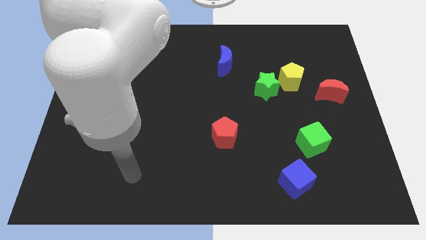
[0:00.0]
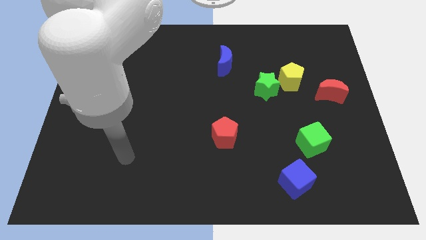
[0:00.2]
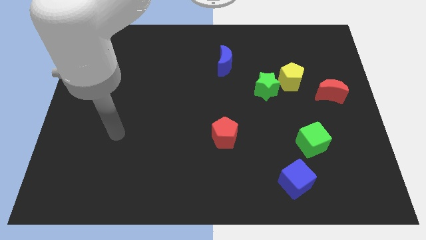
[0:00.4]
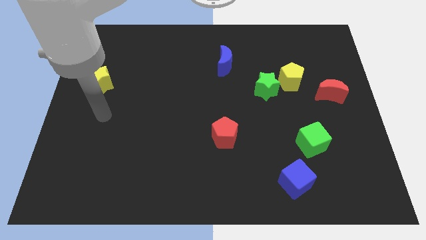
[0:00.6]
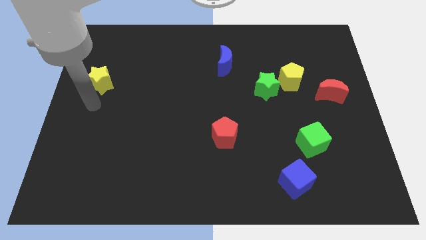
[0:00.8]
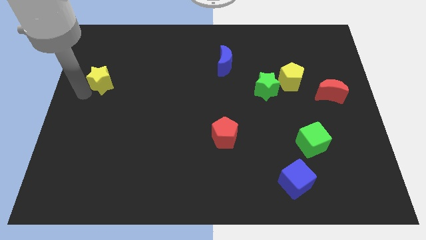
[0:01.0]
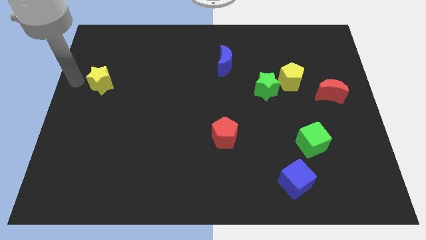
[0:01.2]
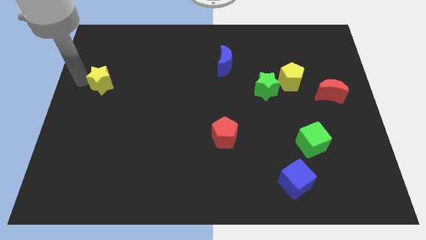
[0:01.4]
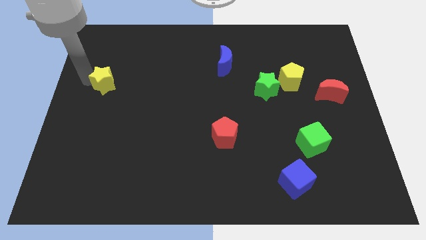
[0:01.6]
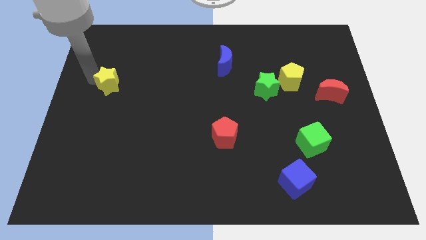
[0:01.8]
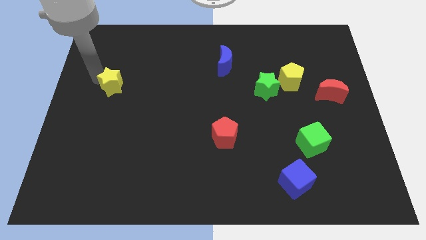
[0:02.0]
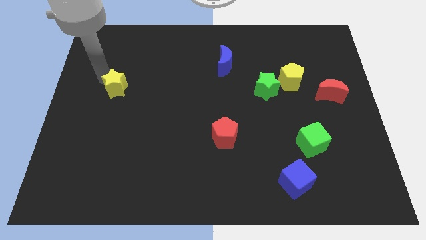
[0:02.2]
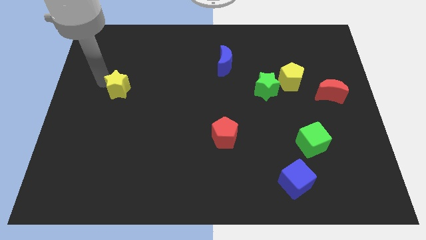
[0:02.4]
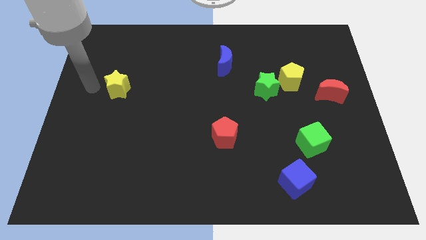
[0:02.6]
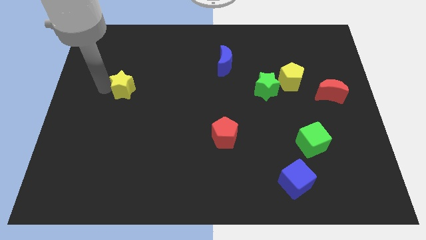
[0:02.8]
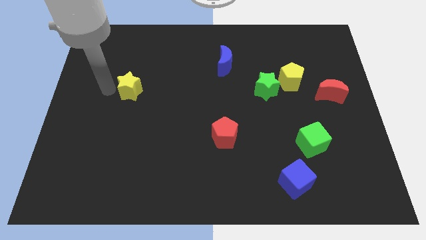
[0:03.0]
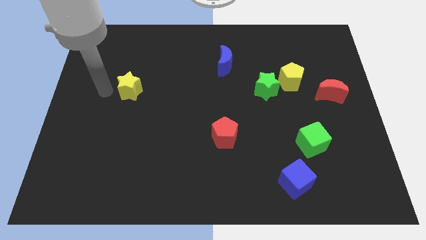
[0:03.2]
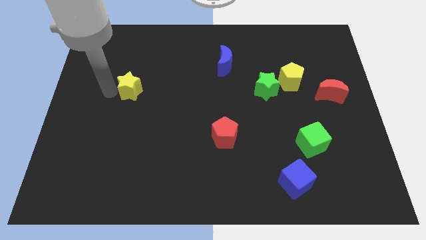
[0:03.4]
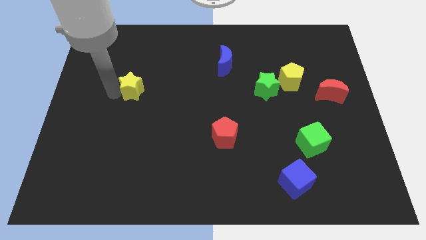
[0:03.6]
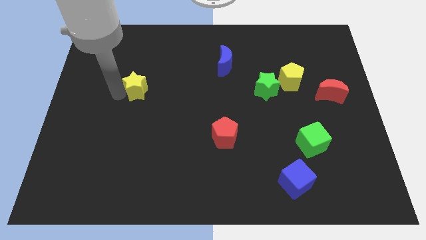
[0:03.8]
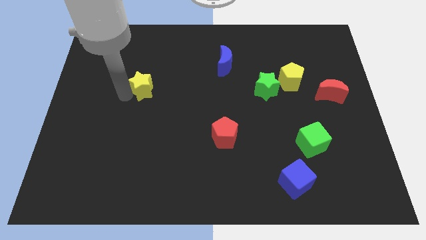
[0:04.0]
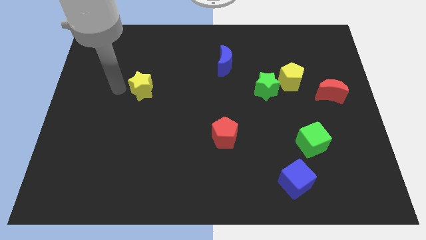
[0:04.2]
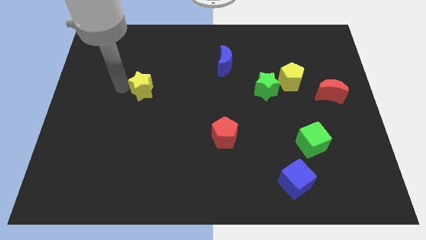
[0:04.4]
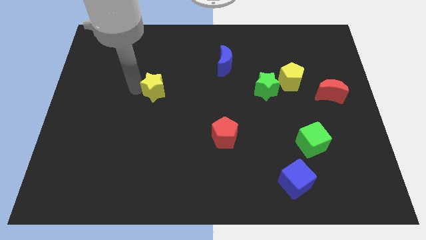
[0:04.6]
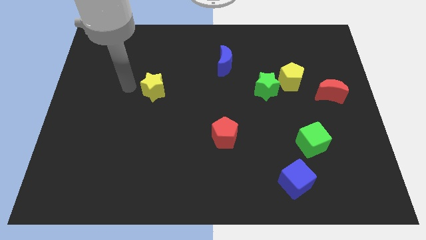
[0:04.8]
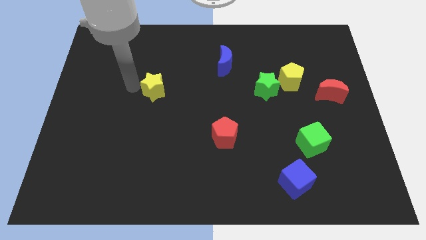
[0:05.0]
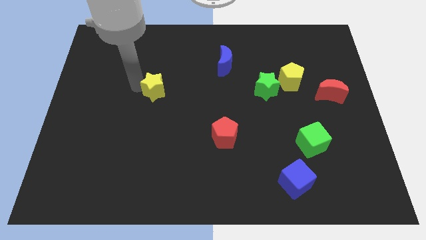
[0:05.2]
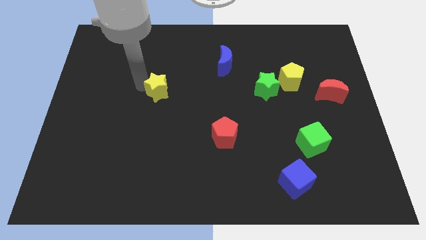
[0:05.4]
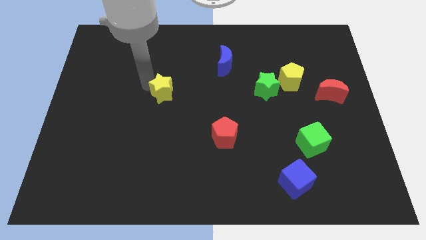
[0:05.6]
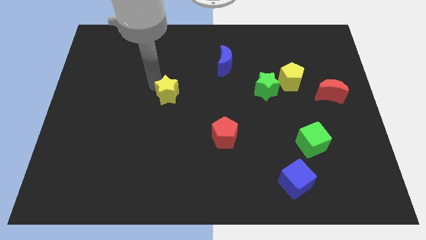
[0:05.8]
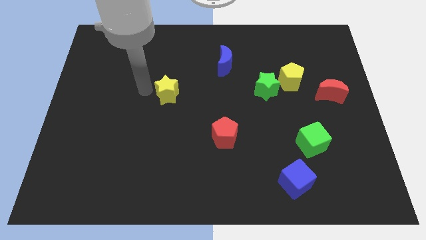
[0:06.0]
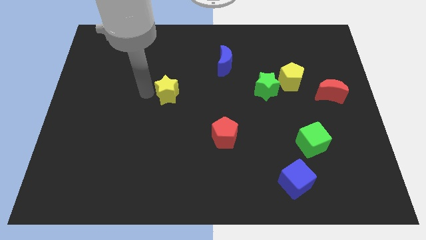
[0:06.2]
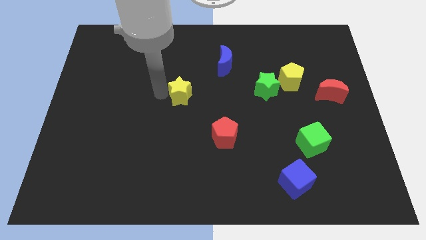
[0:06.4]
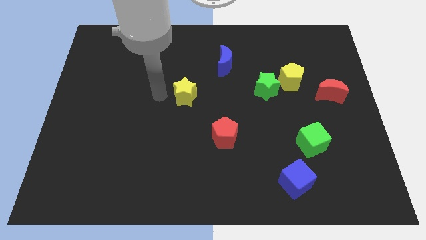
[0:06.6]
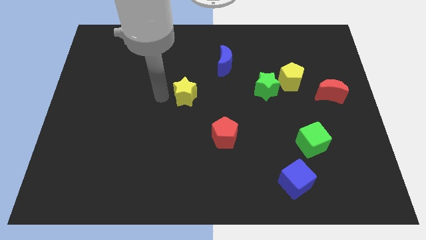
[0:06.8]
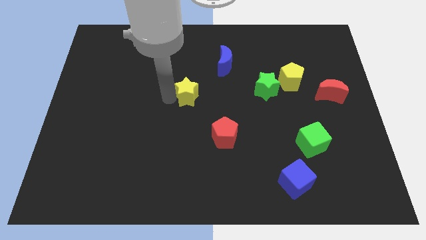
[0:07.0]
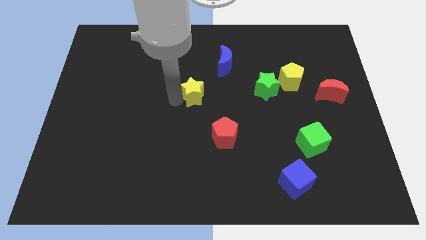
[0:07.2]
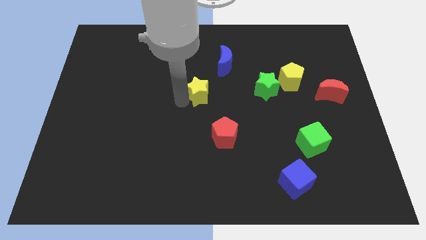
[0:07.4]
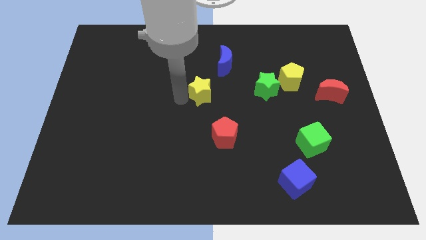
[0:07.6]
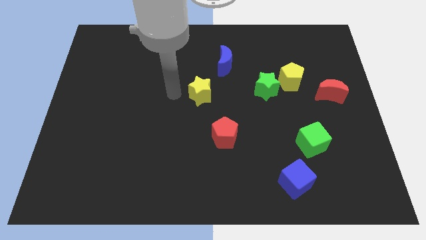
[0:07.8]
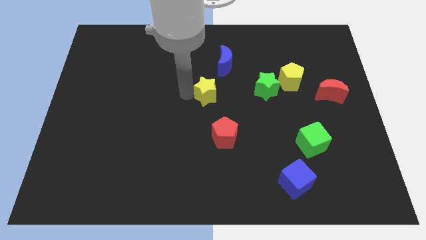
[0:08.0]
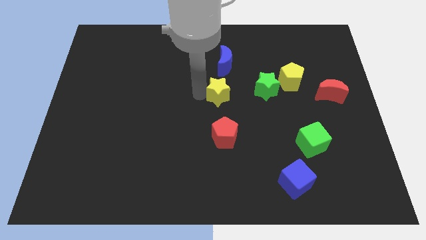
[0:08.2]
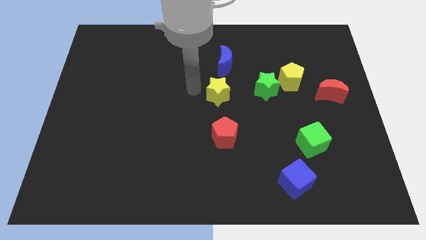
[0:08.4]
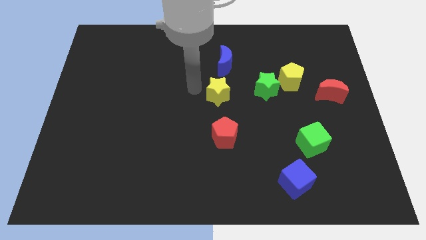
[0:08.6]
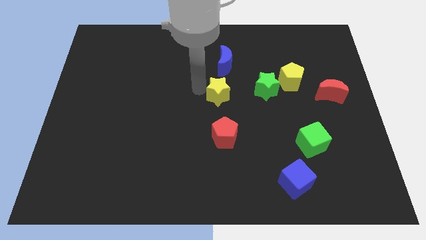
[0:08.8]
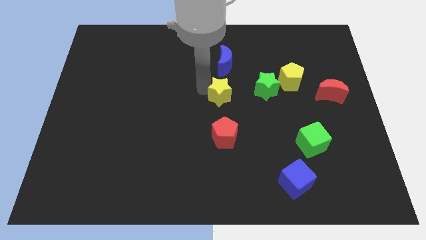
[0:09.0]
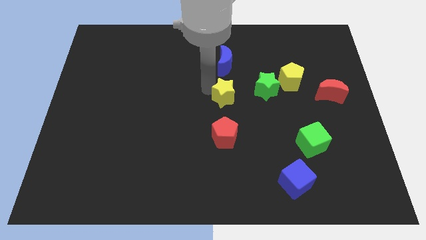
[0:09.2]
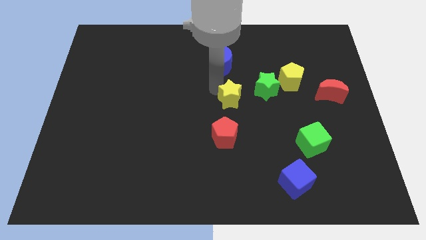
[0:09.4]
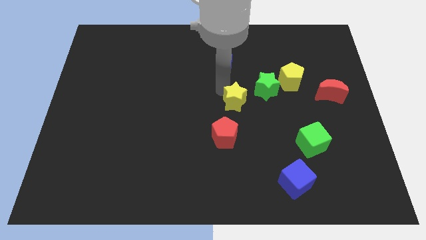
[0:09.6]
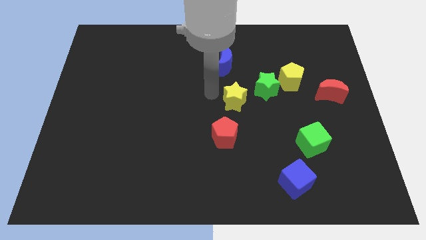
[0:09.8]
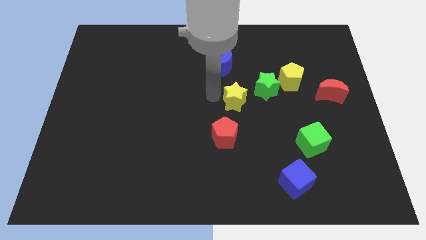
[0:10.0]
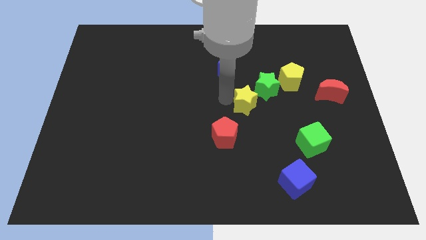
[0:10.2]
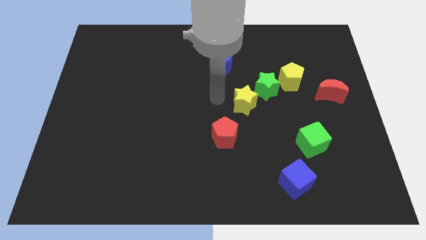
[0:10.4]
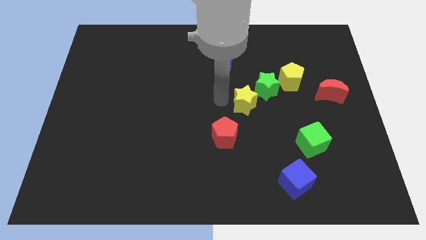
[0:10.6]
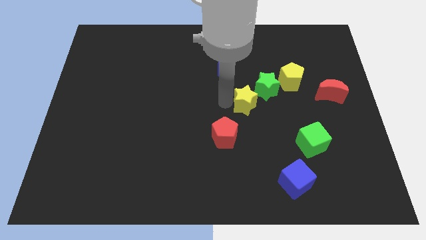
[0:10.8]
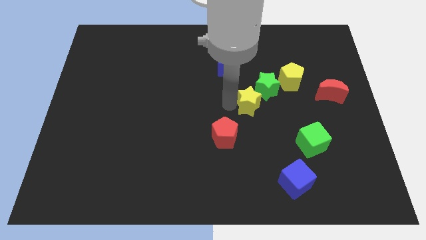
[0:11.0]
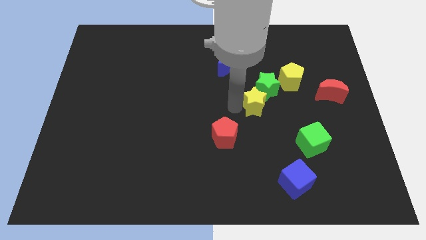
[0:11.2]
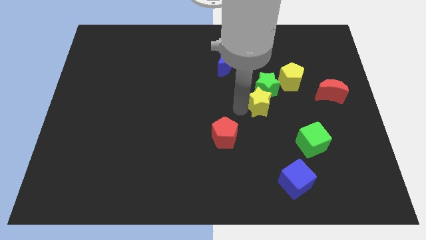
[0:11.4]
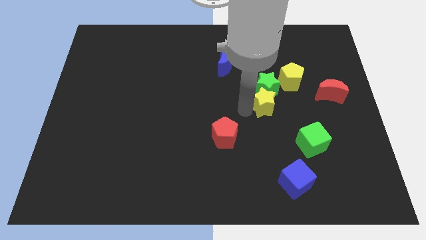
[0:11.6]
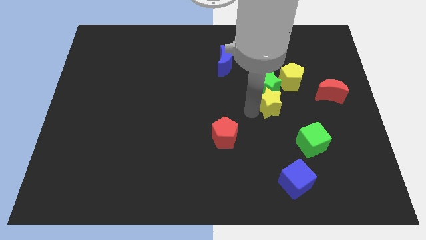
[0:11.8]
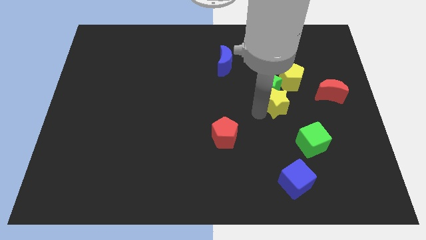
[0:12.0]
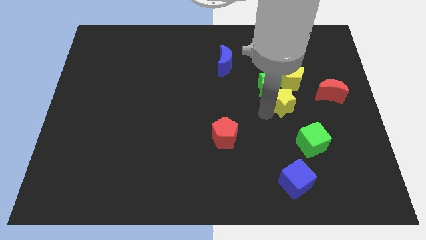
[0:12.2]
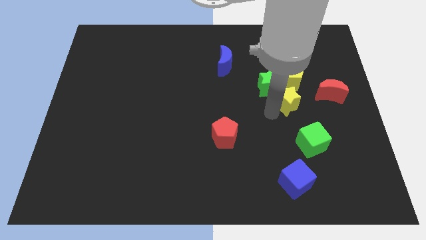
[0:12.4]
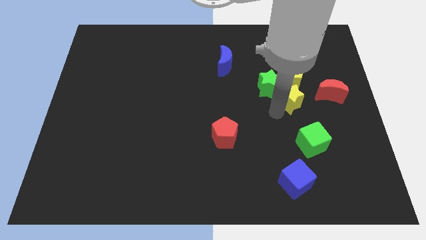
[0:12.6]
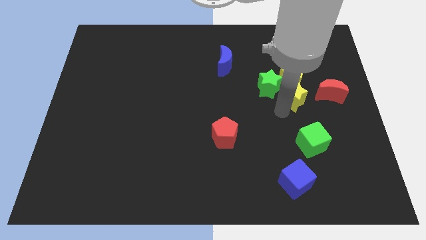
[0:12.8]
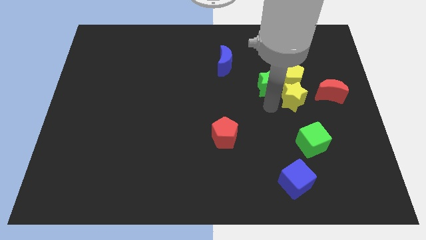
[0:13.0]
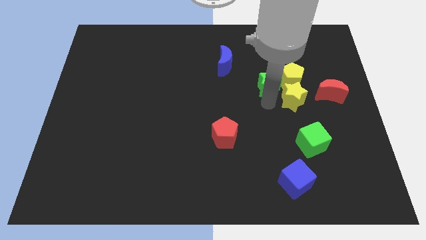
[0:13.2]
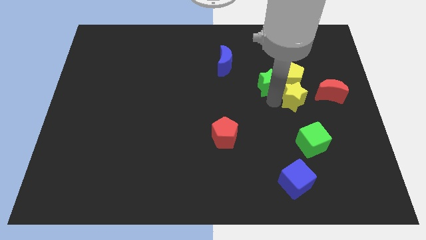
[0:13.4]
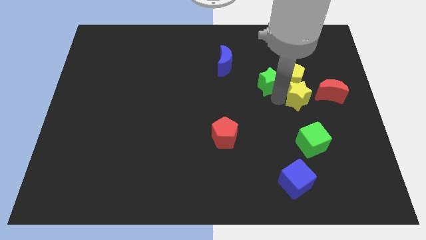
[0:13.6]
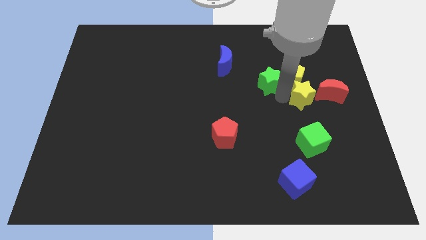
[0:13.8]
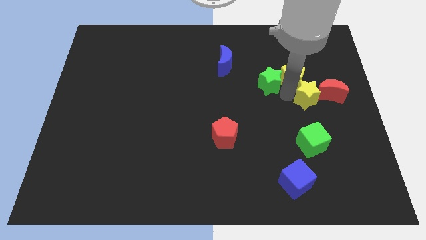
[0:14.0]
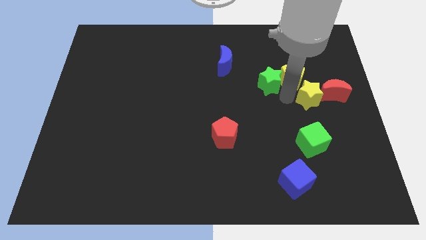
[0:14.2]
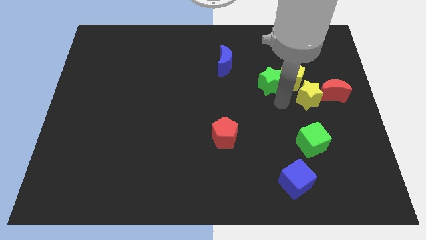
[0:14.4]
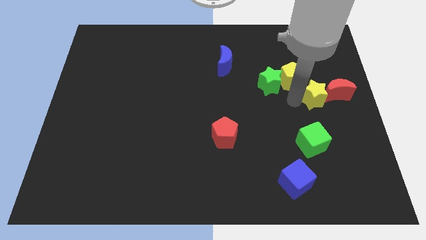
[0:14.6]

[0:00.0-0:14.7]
push the yellow star close to the red moon
